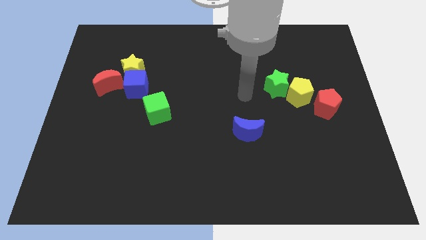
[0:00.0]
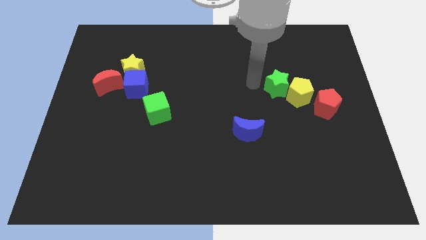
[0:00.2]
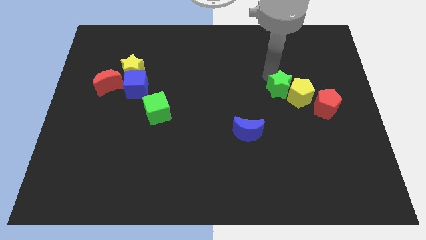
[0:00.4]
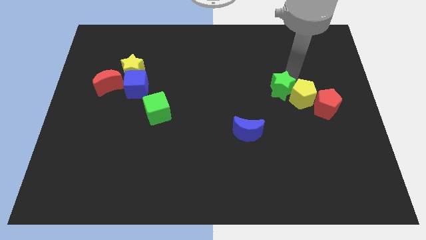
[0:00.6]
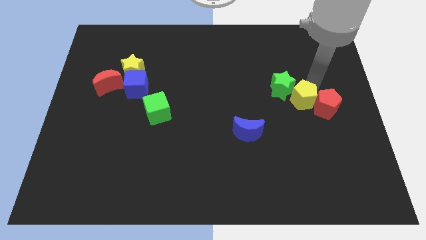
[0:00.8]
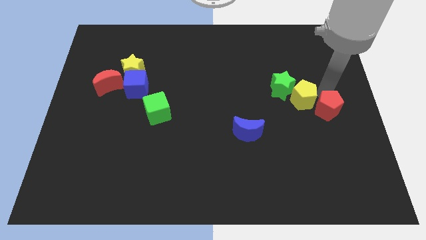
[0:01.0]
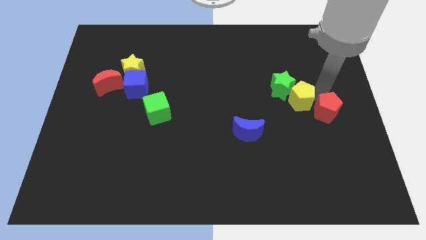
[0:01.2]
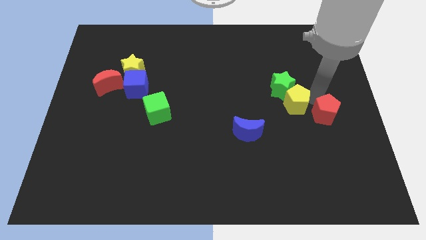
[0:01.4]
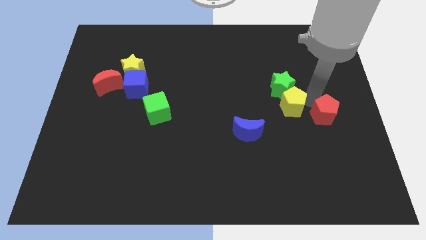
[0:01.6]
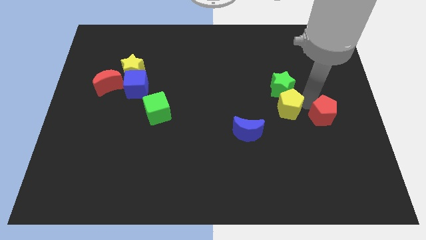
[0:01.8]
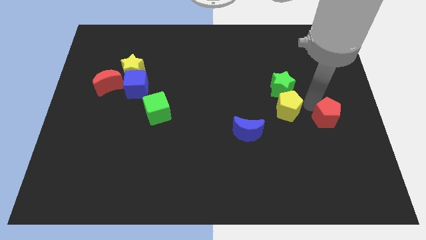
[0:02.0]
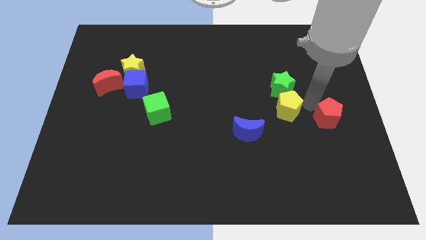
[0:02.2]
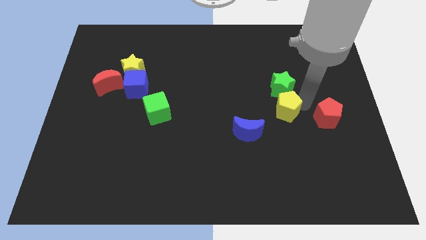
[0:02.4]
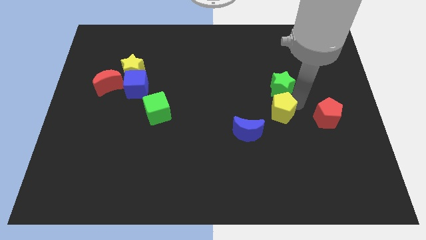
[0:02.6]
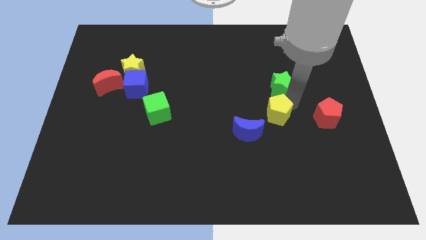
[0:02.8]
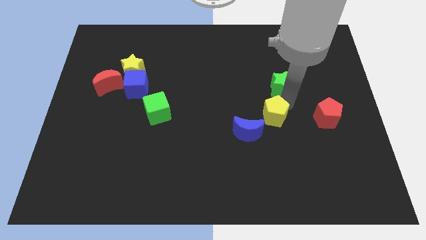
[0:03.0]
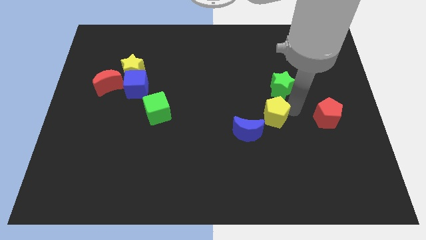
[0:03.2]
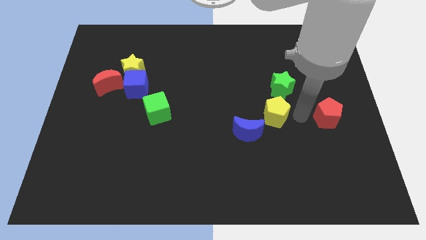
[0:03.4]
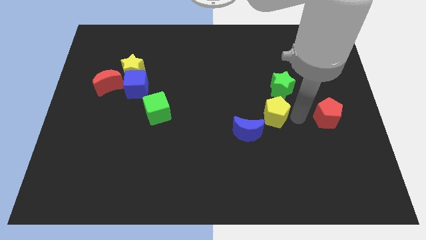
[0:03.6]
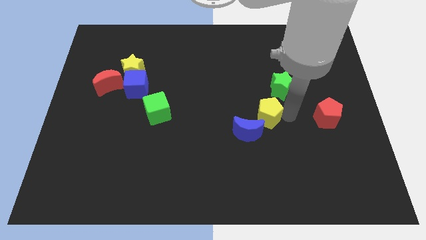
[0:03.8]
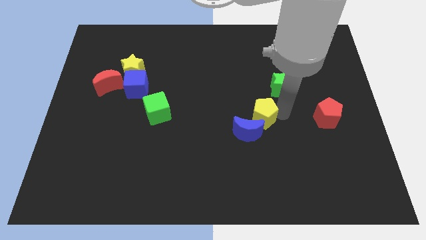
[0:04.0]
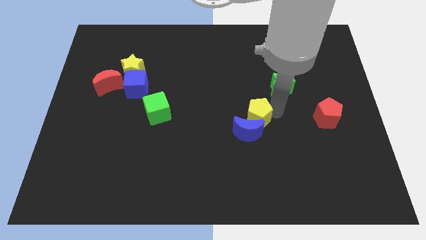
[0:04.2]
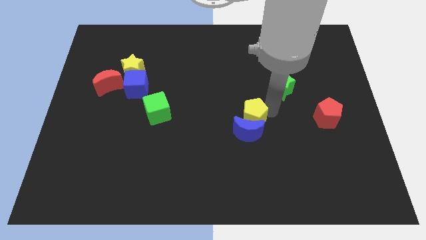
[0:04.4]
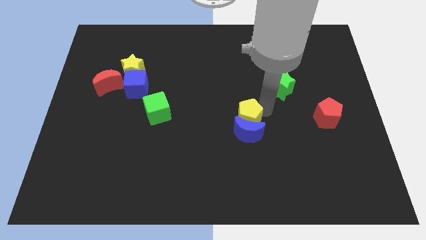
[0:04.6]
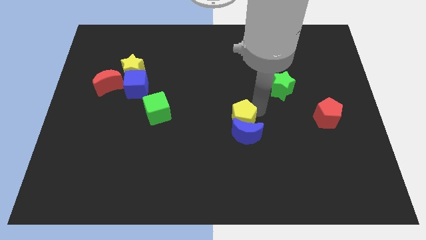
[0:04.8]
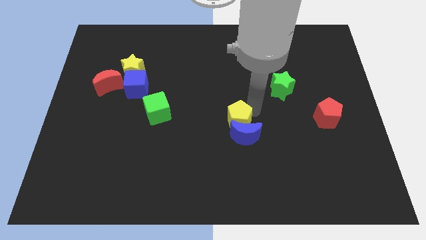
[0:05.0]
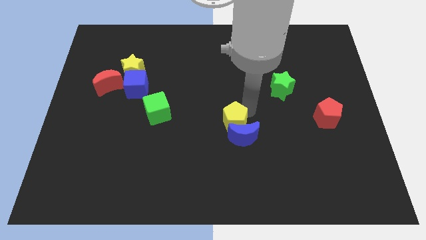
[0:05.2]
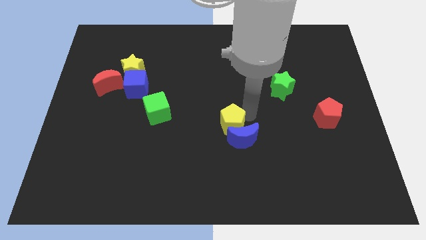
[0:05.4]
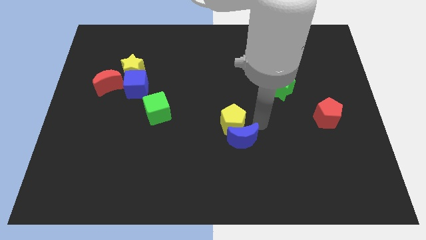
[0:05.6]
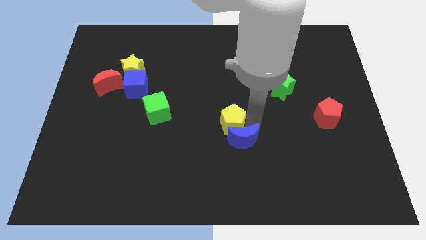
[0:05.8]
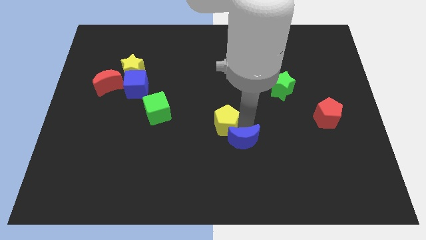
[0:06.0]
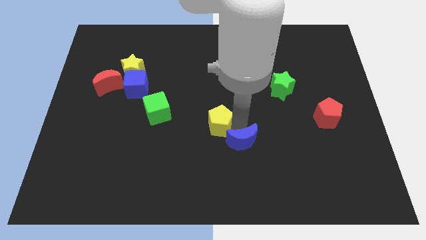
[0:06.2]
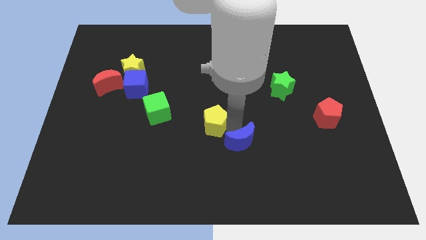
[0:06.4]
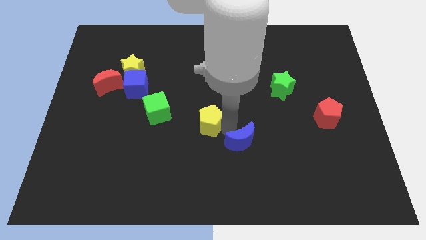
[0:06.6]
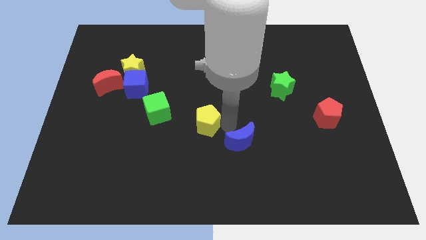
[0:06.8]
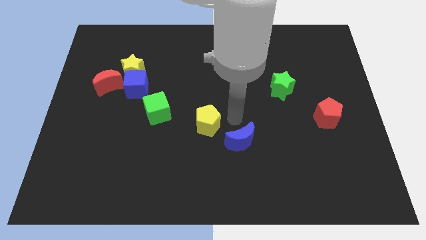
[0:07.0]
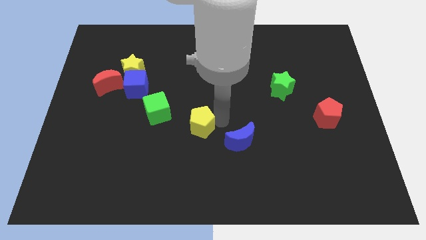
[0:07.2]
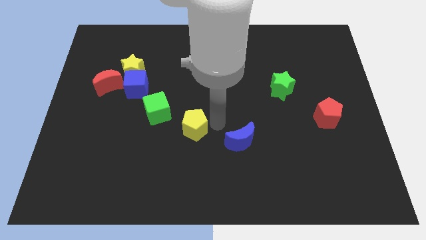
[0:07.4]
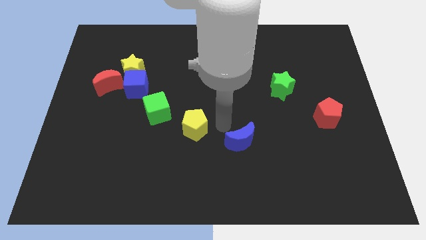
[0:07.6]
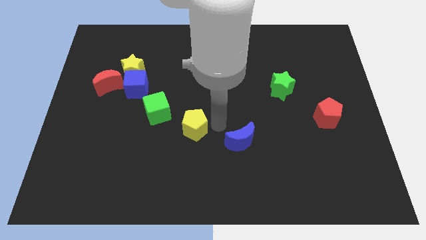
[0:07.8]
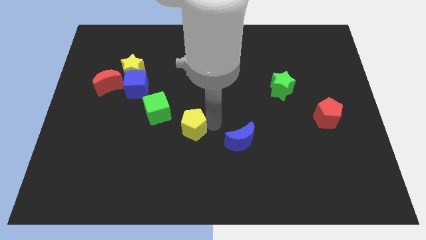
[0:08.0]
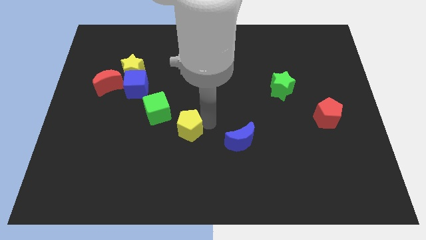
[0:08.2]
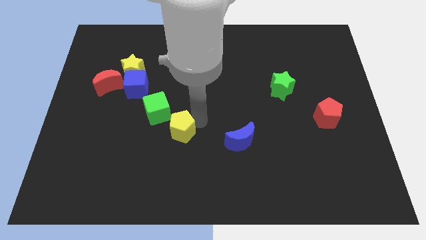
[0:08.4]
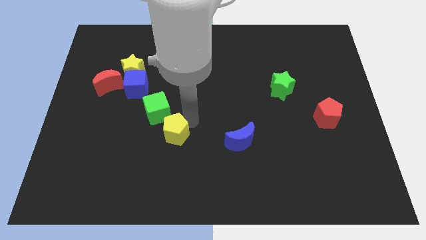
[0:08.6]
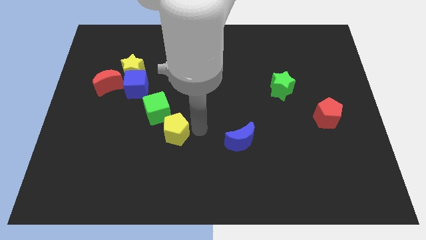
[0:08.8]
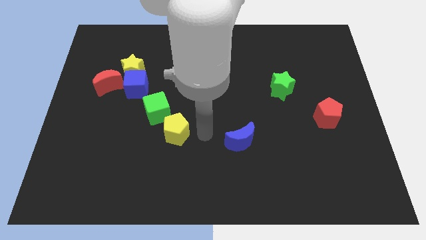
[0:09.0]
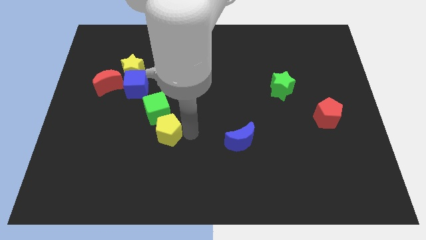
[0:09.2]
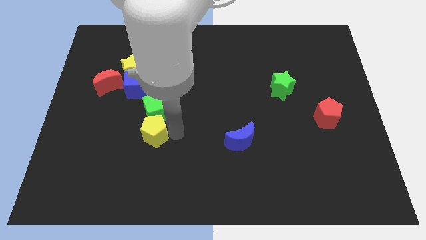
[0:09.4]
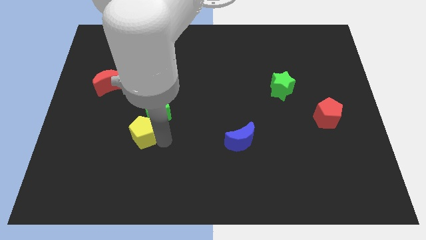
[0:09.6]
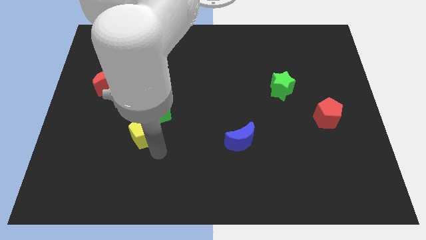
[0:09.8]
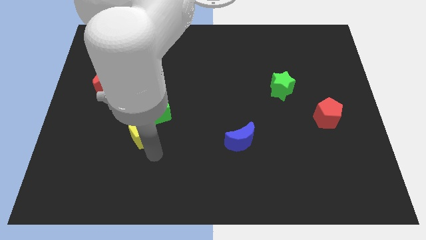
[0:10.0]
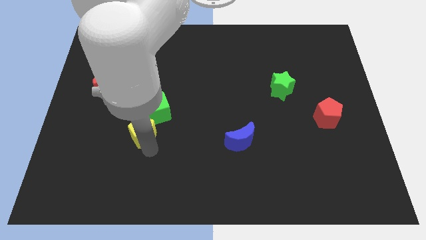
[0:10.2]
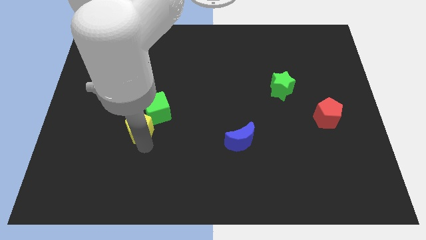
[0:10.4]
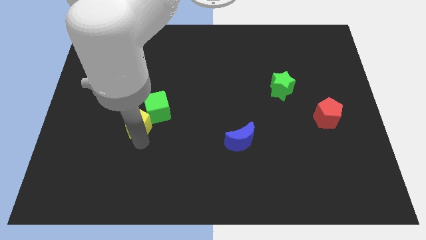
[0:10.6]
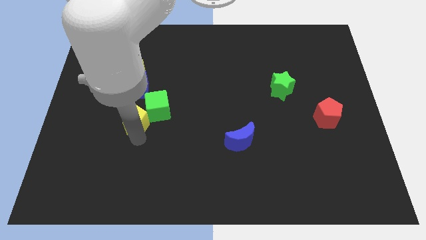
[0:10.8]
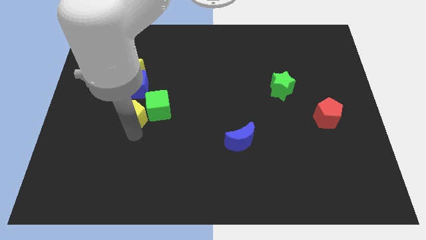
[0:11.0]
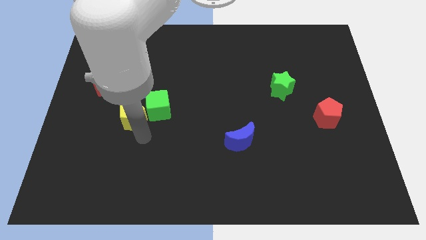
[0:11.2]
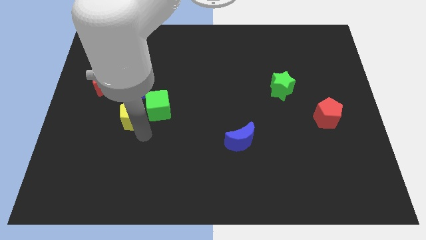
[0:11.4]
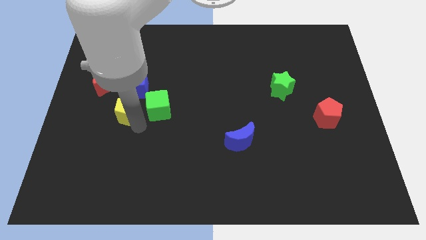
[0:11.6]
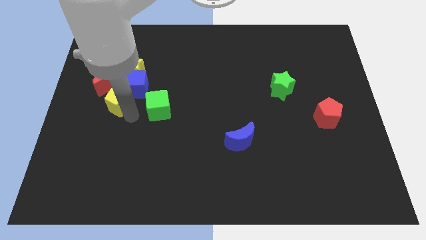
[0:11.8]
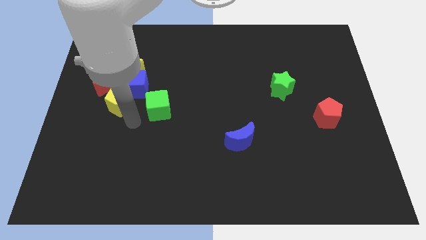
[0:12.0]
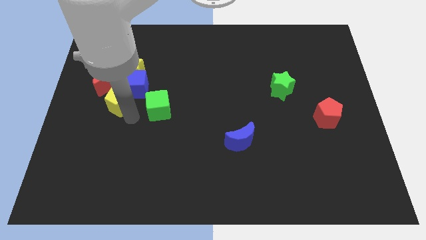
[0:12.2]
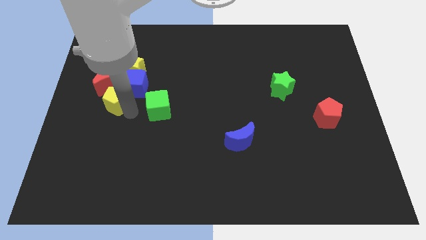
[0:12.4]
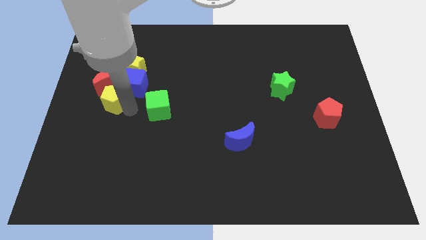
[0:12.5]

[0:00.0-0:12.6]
slide the yellow pentagon close to the red moon

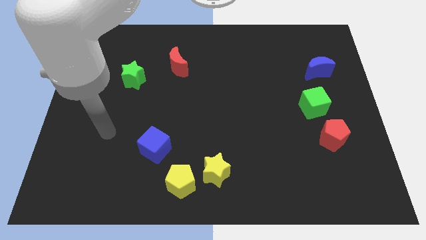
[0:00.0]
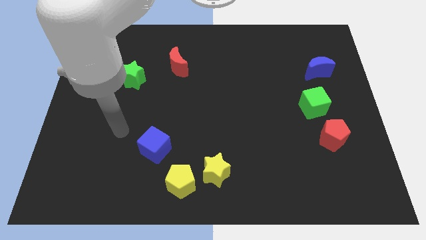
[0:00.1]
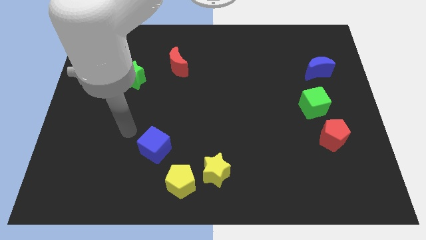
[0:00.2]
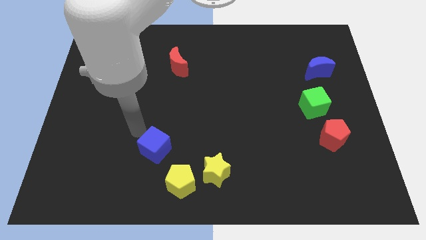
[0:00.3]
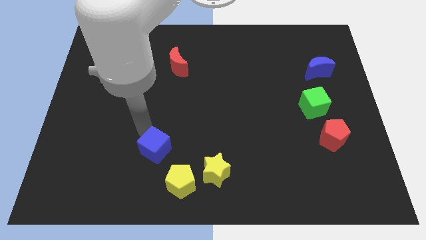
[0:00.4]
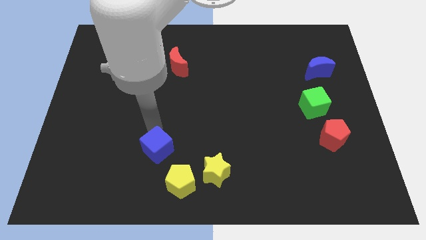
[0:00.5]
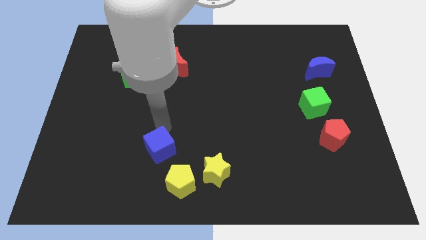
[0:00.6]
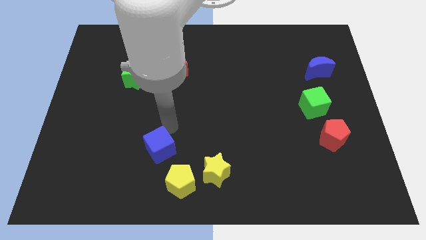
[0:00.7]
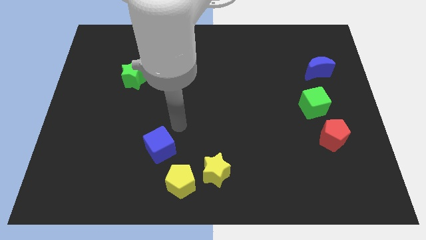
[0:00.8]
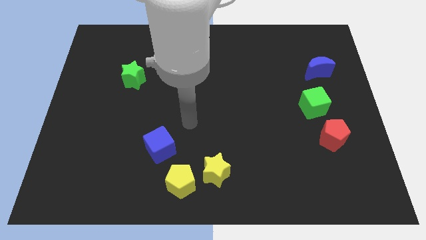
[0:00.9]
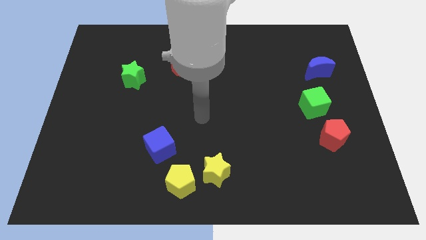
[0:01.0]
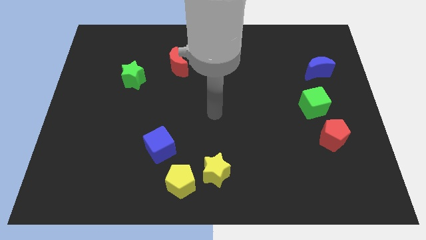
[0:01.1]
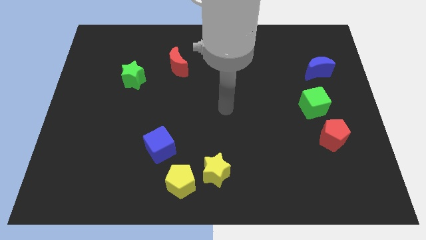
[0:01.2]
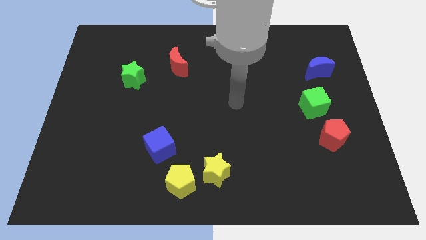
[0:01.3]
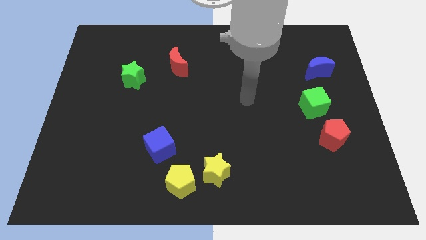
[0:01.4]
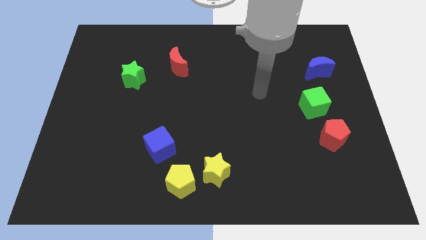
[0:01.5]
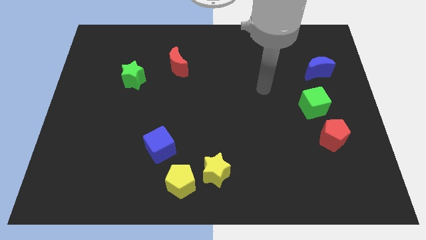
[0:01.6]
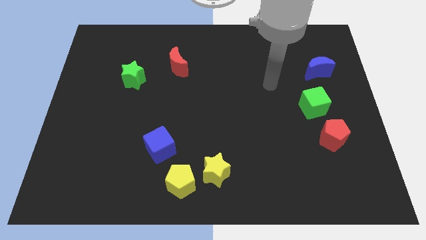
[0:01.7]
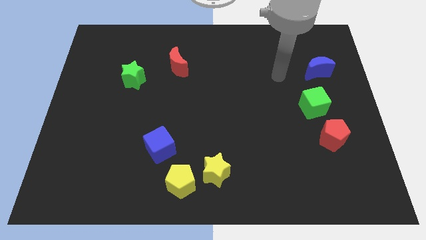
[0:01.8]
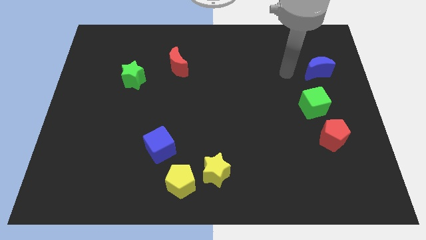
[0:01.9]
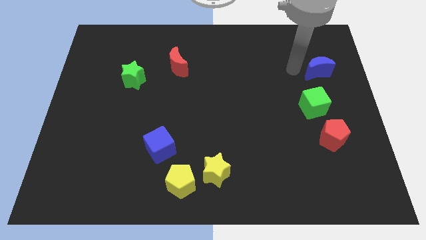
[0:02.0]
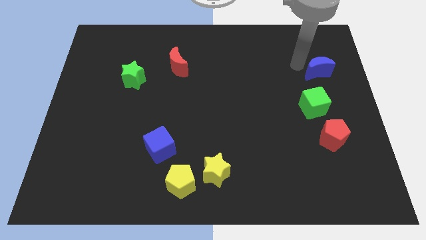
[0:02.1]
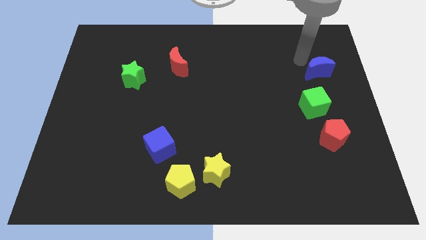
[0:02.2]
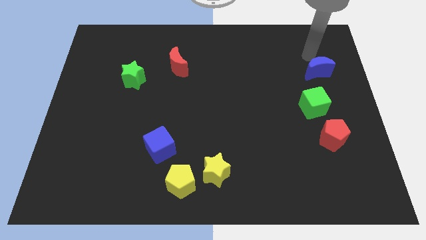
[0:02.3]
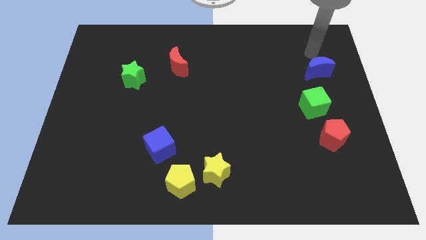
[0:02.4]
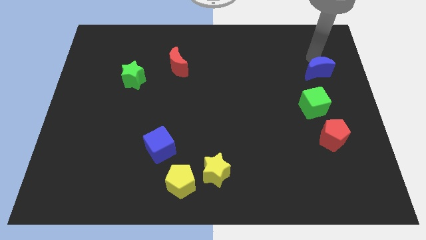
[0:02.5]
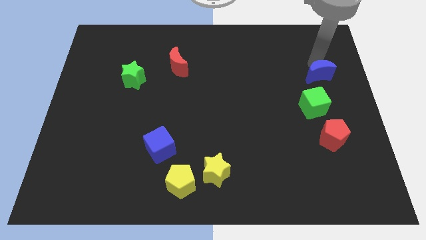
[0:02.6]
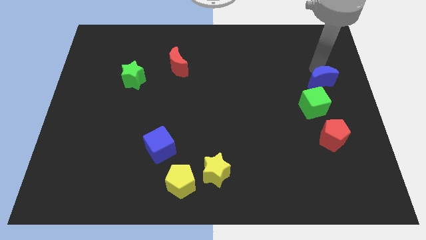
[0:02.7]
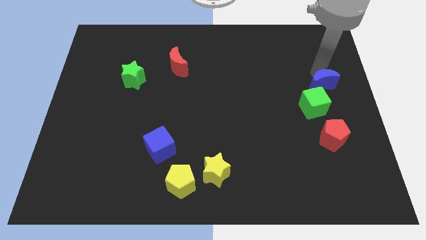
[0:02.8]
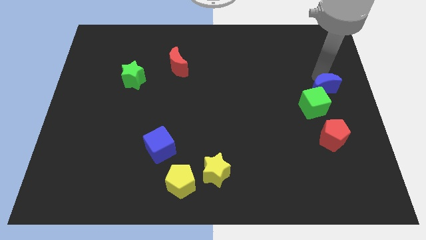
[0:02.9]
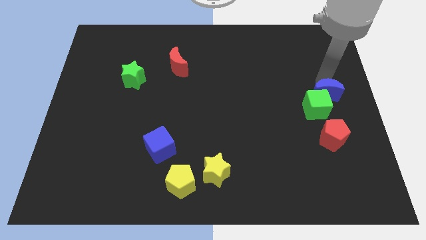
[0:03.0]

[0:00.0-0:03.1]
put the blue moon close to the green cube
